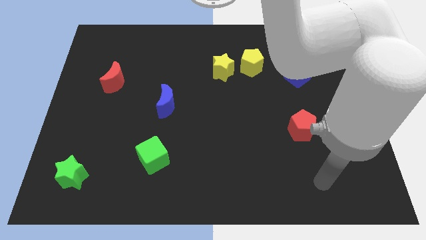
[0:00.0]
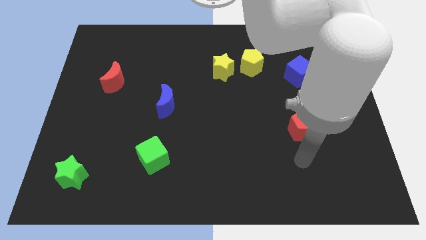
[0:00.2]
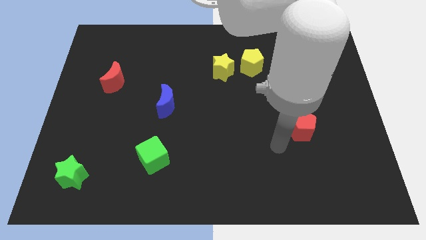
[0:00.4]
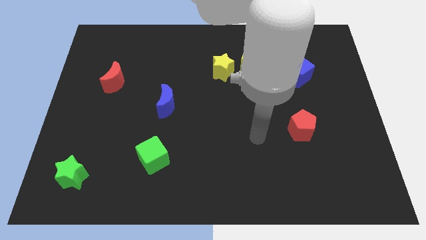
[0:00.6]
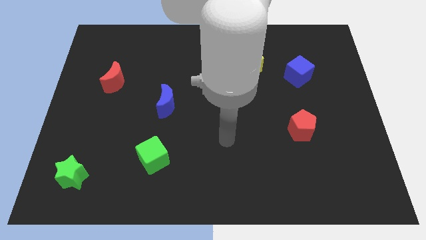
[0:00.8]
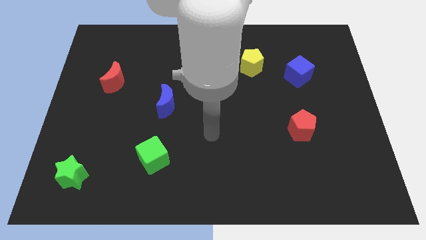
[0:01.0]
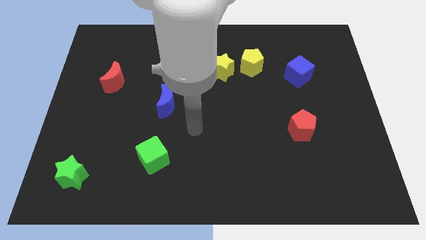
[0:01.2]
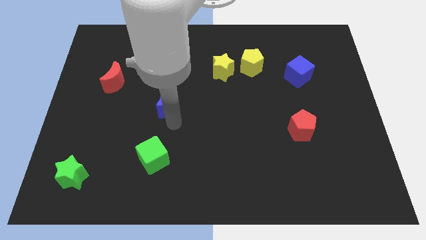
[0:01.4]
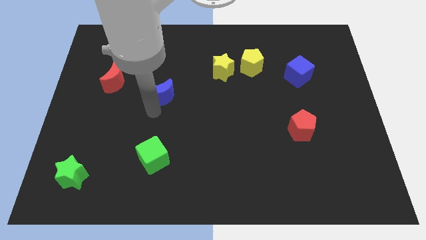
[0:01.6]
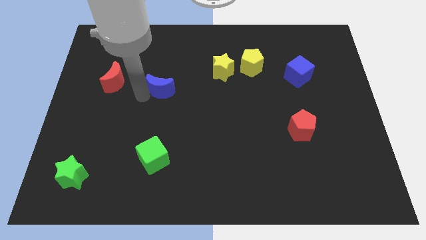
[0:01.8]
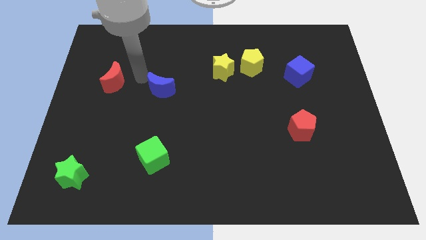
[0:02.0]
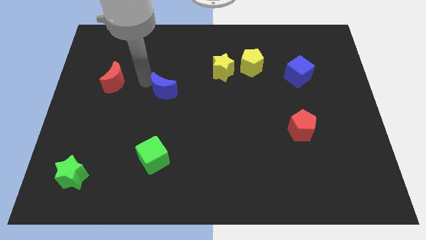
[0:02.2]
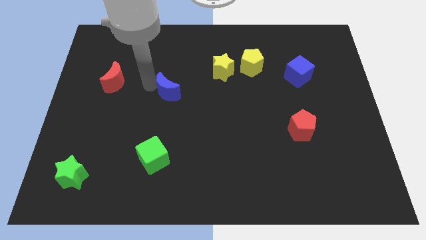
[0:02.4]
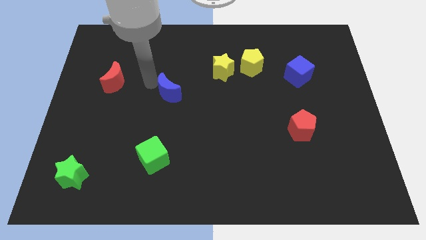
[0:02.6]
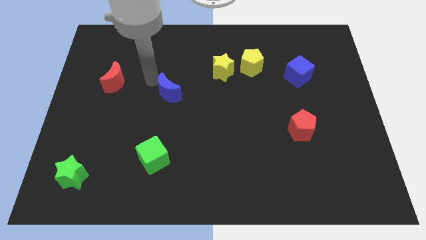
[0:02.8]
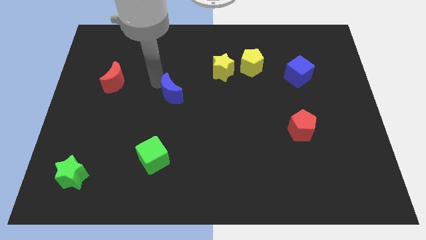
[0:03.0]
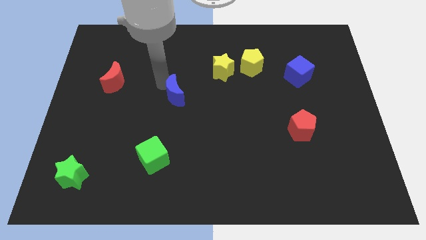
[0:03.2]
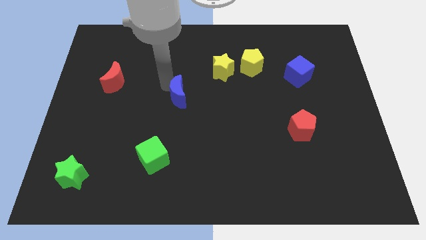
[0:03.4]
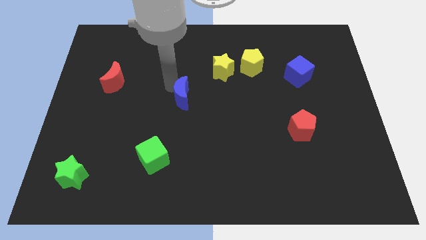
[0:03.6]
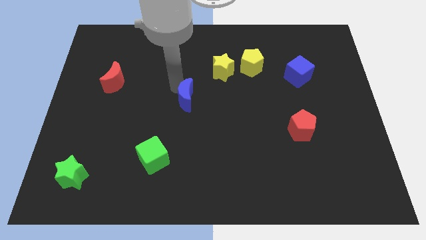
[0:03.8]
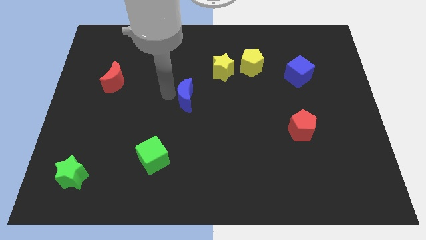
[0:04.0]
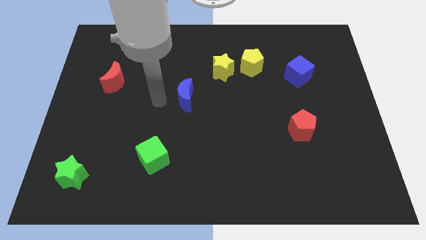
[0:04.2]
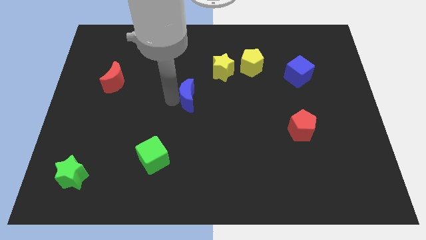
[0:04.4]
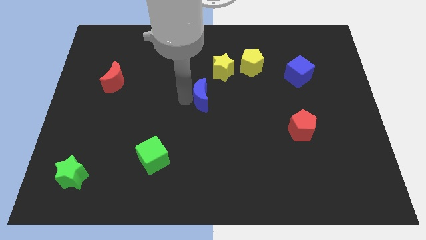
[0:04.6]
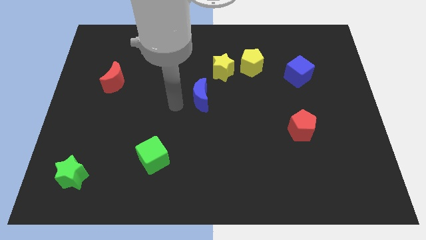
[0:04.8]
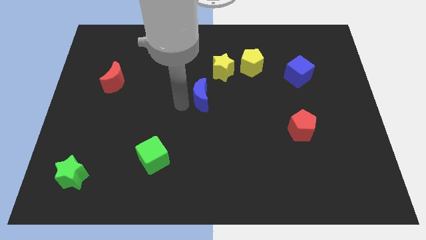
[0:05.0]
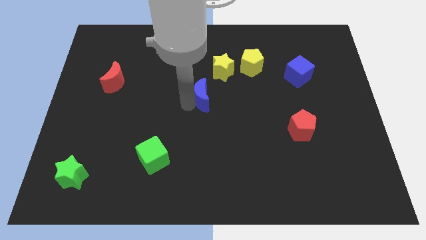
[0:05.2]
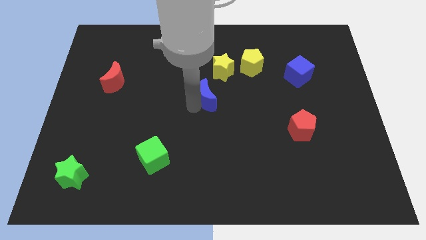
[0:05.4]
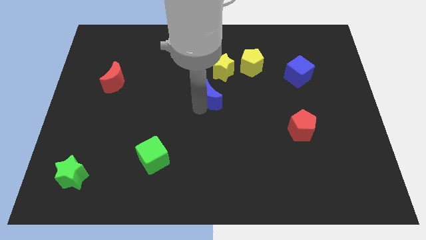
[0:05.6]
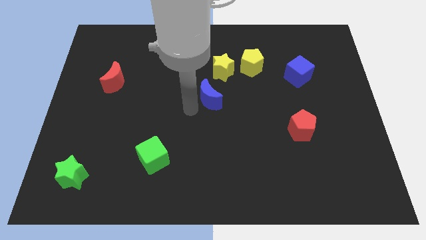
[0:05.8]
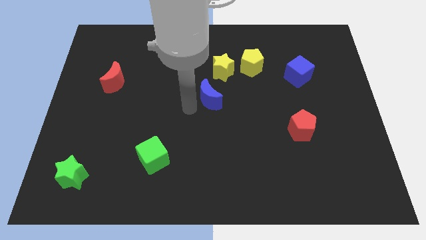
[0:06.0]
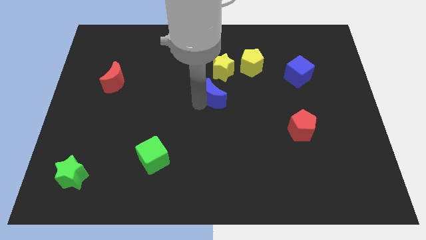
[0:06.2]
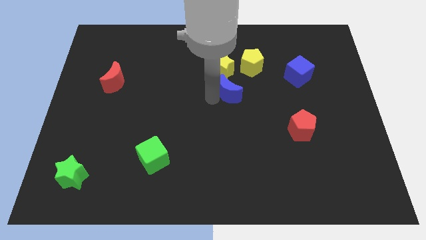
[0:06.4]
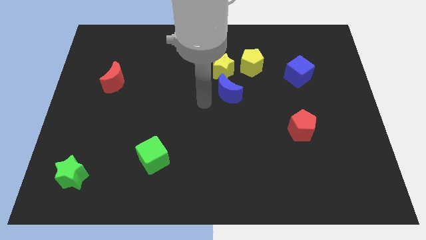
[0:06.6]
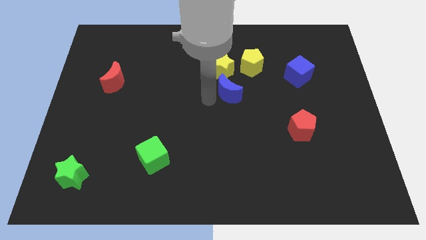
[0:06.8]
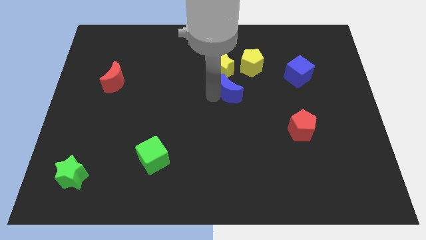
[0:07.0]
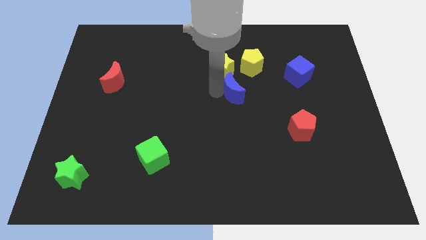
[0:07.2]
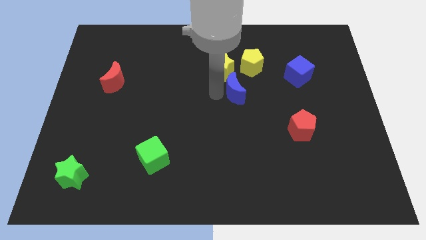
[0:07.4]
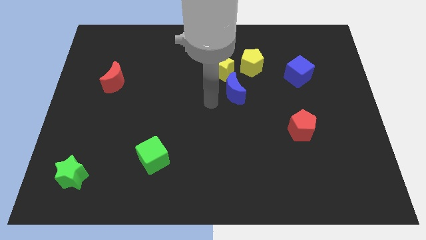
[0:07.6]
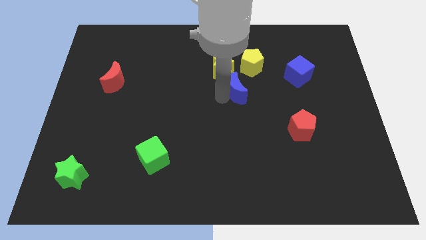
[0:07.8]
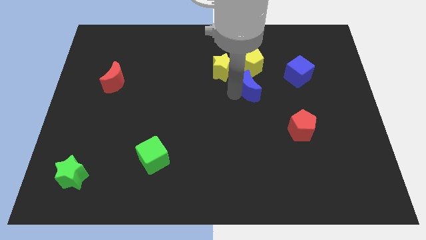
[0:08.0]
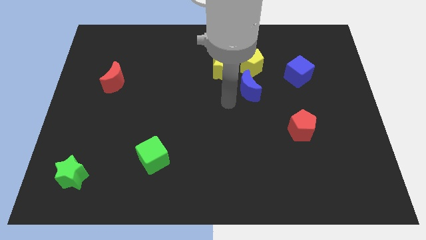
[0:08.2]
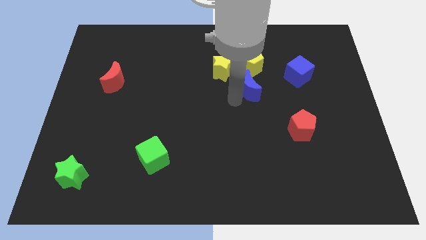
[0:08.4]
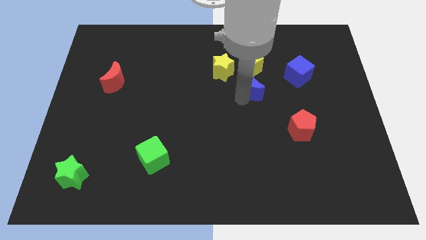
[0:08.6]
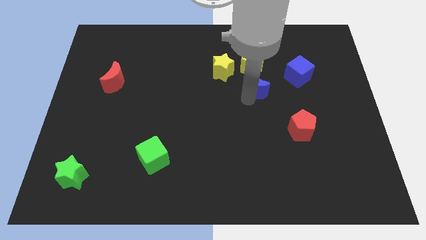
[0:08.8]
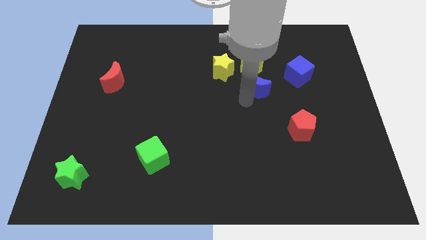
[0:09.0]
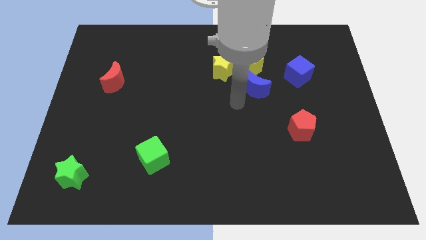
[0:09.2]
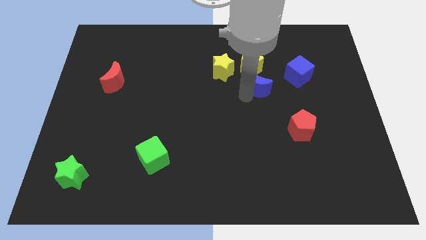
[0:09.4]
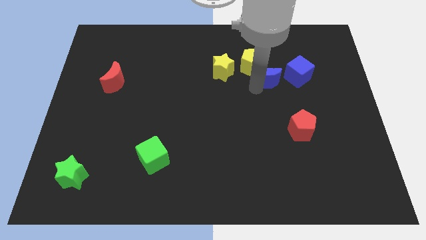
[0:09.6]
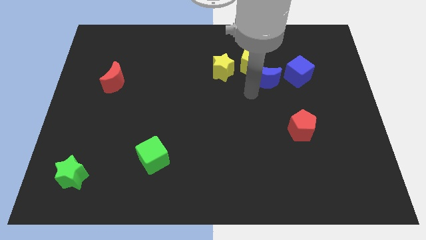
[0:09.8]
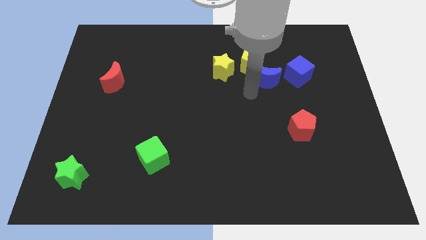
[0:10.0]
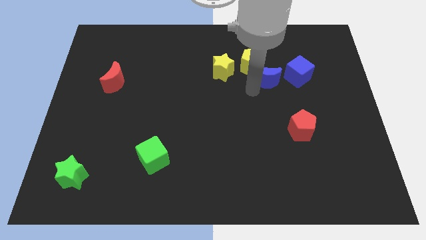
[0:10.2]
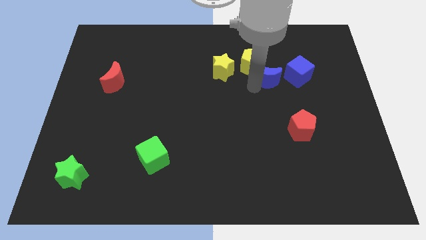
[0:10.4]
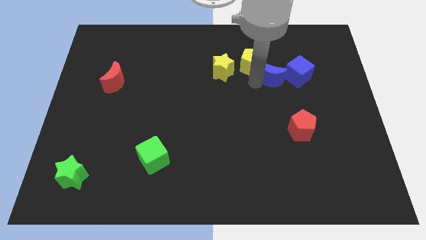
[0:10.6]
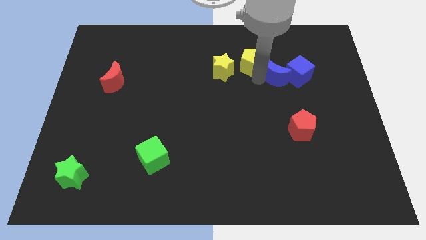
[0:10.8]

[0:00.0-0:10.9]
push the blue moon towards the blue cube

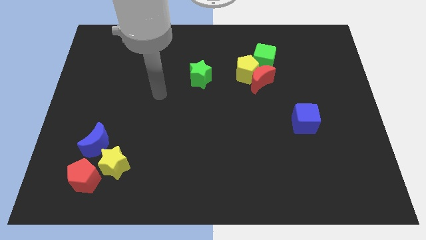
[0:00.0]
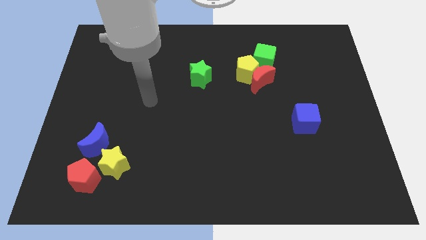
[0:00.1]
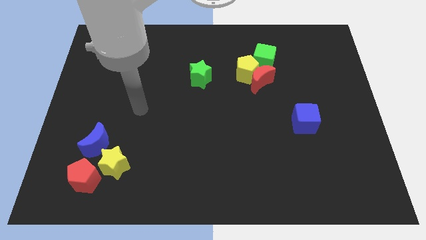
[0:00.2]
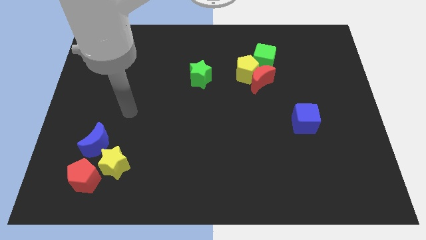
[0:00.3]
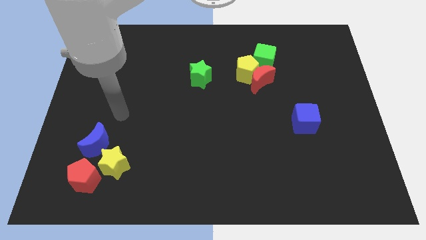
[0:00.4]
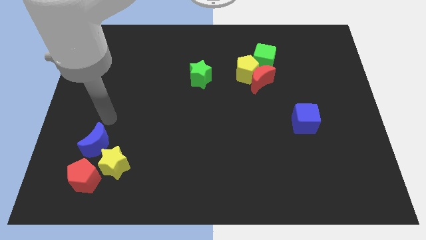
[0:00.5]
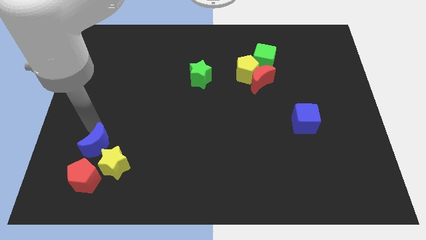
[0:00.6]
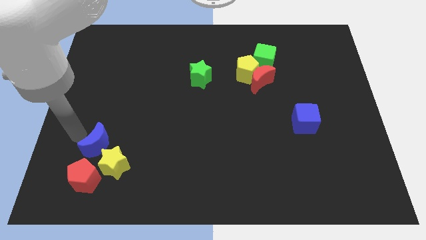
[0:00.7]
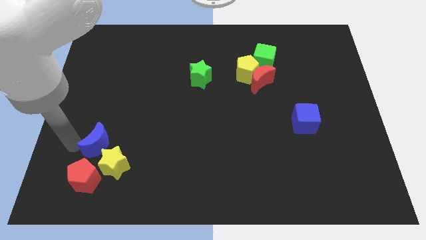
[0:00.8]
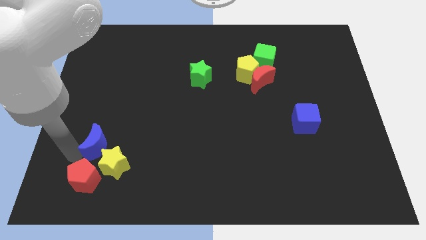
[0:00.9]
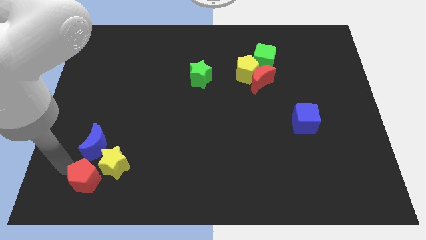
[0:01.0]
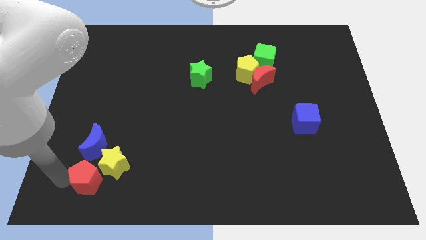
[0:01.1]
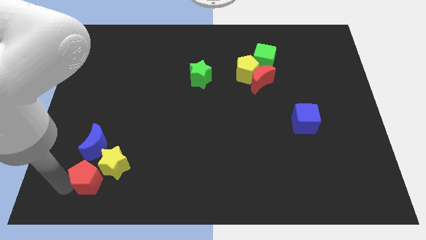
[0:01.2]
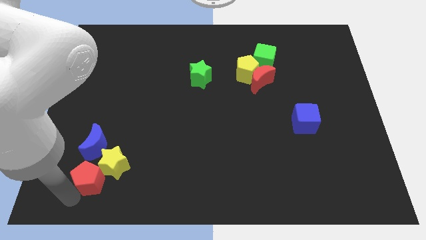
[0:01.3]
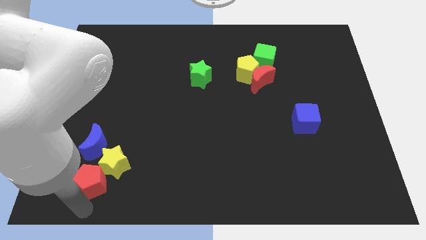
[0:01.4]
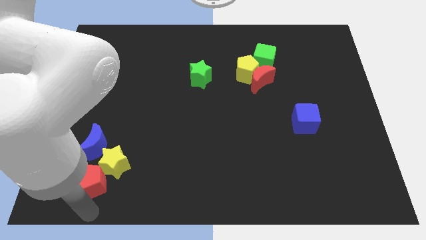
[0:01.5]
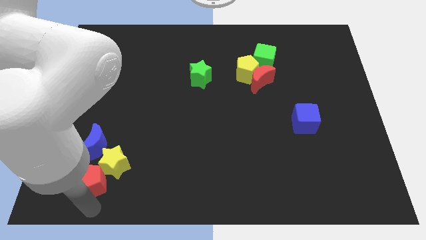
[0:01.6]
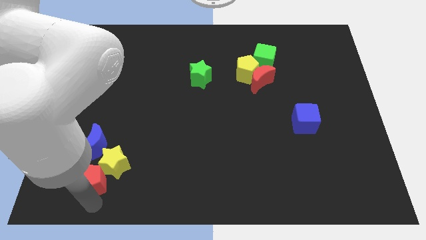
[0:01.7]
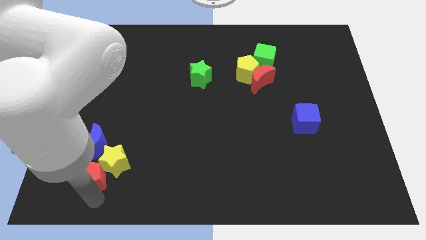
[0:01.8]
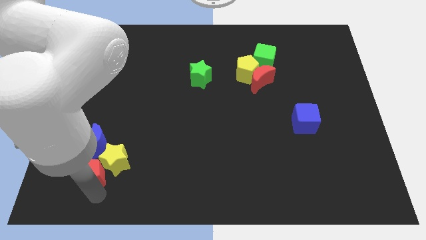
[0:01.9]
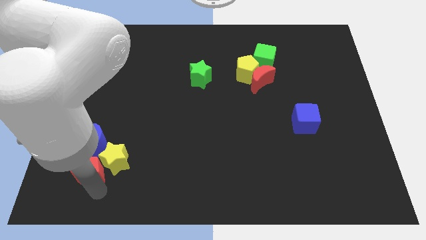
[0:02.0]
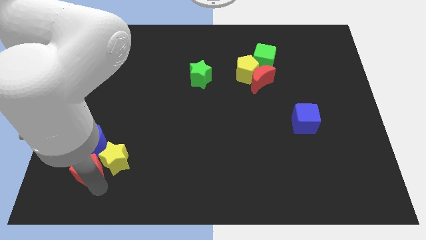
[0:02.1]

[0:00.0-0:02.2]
slide the red pentagon towards the blue moon
